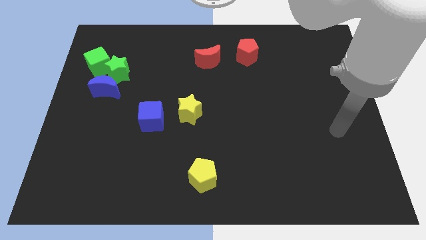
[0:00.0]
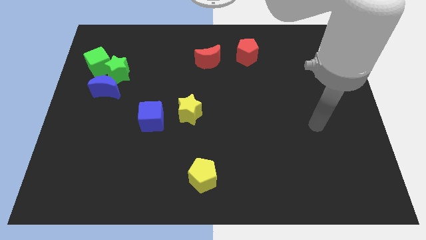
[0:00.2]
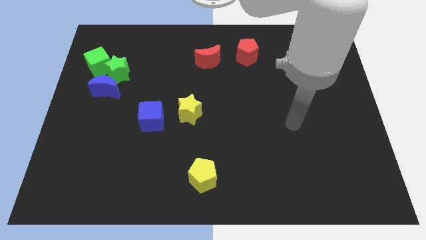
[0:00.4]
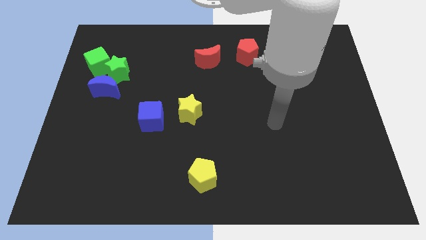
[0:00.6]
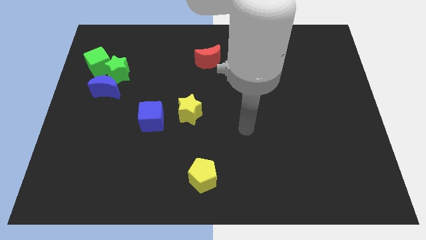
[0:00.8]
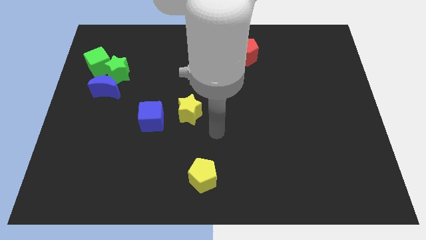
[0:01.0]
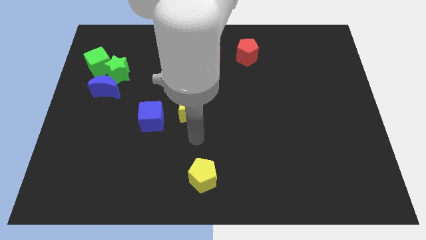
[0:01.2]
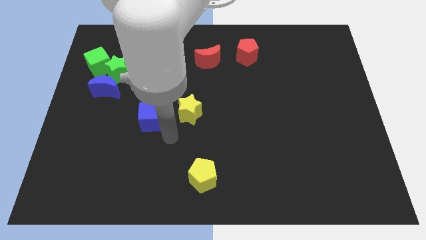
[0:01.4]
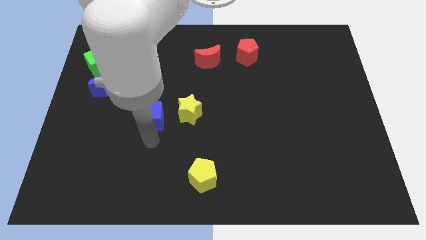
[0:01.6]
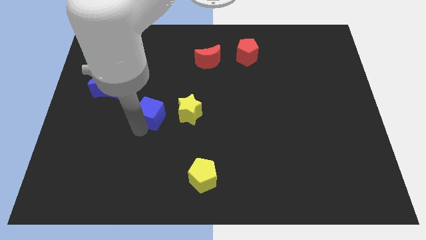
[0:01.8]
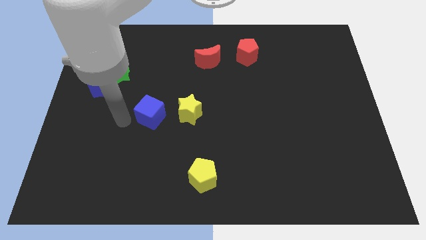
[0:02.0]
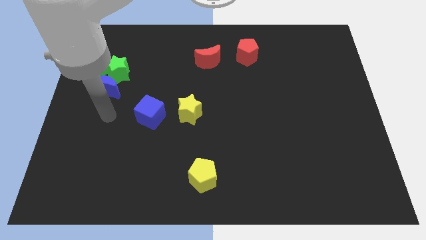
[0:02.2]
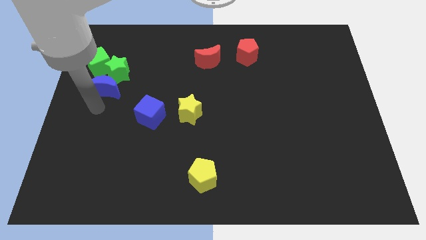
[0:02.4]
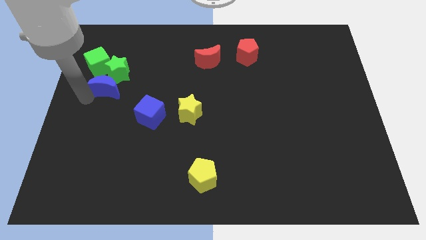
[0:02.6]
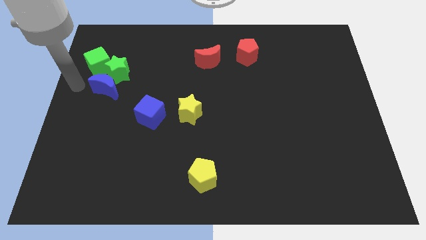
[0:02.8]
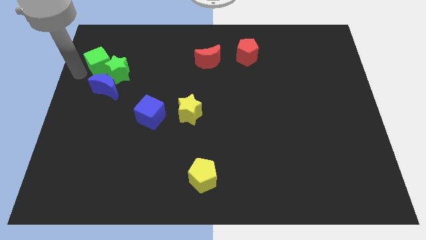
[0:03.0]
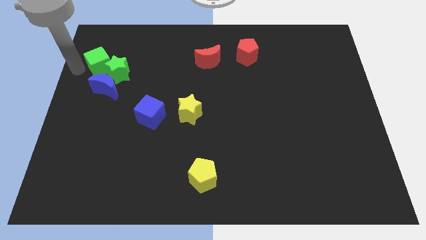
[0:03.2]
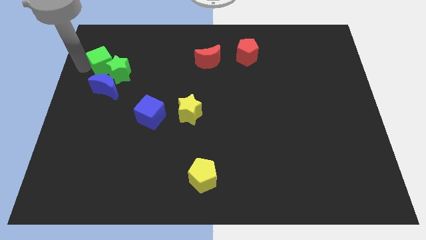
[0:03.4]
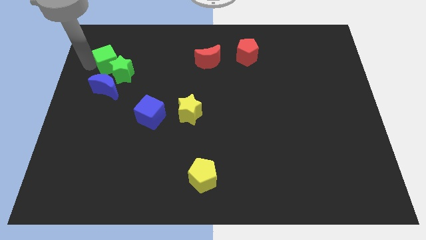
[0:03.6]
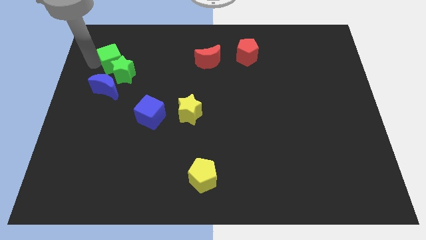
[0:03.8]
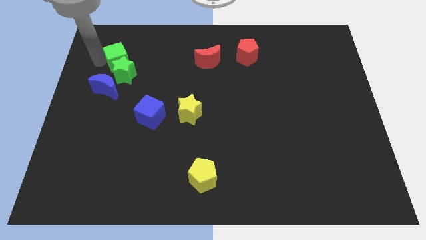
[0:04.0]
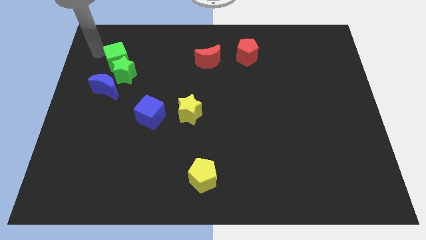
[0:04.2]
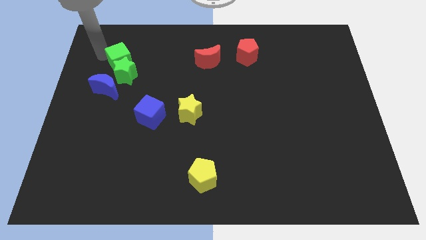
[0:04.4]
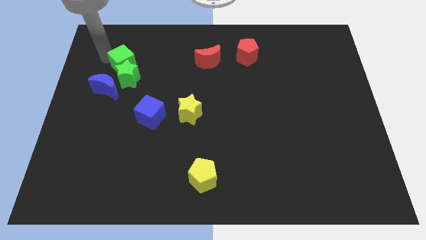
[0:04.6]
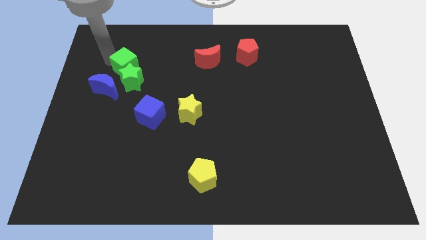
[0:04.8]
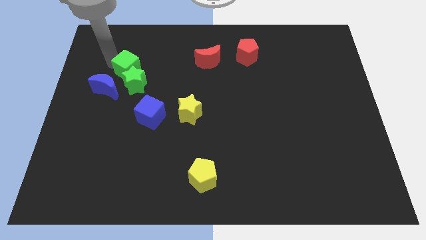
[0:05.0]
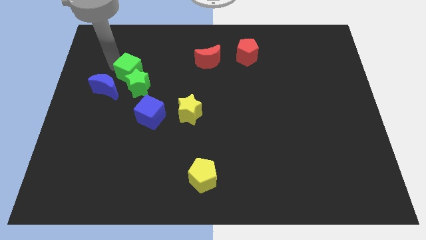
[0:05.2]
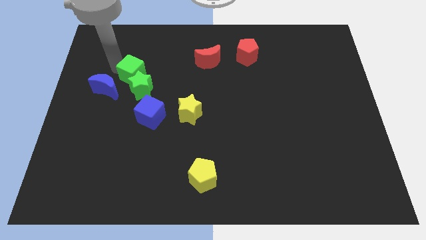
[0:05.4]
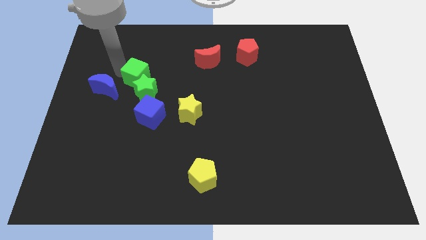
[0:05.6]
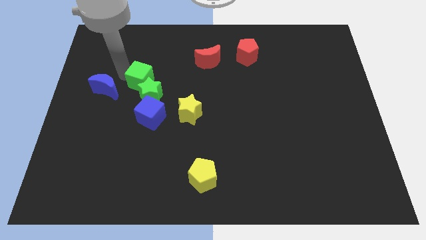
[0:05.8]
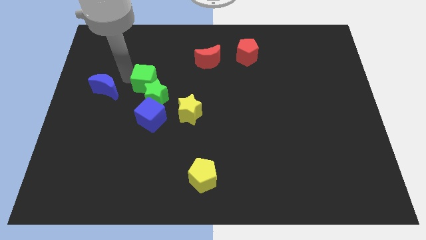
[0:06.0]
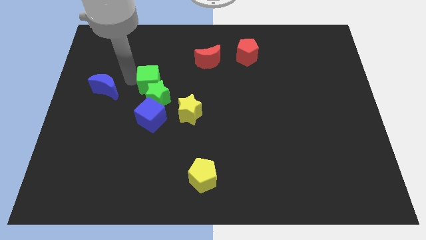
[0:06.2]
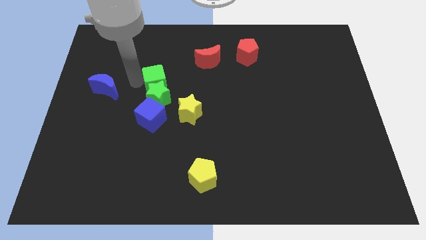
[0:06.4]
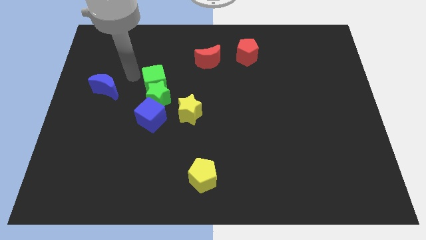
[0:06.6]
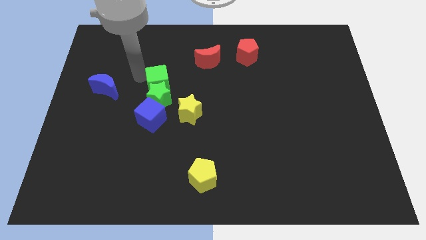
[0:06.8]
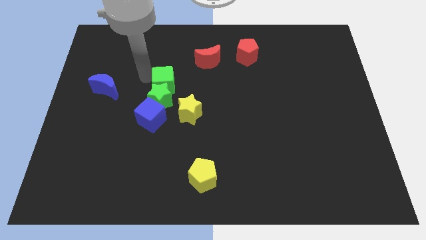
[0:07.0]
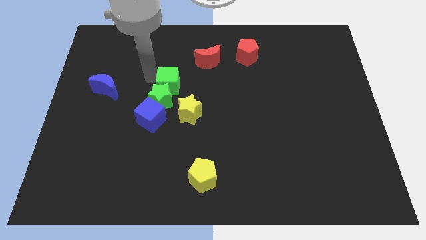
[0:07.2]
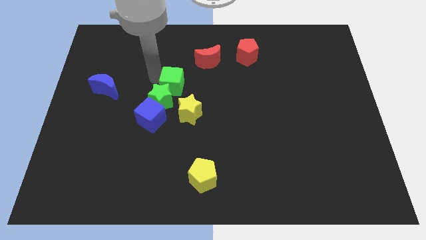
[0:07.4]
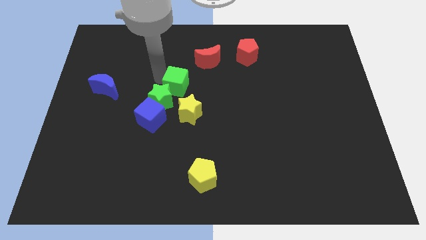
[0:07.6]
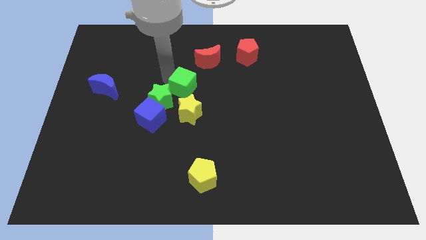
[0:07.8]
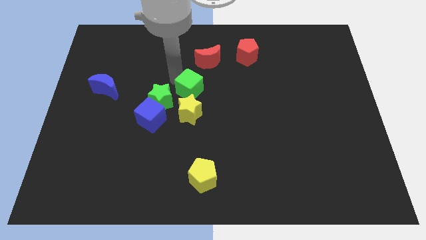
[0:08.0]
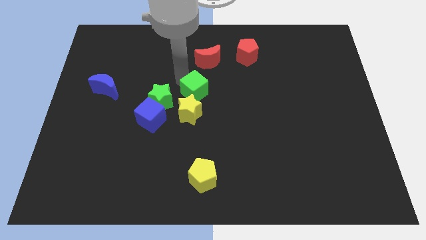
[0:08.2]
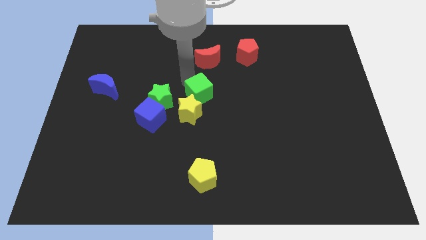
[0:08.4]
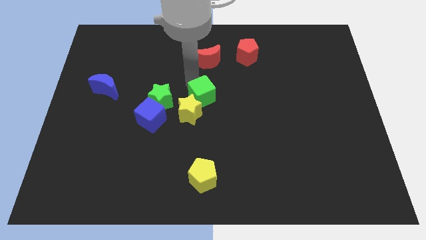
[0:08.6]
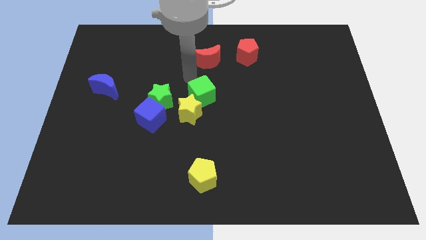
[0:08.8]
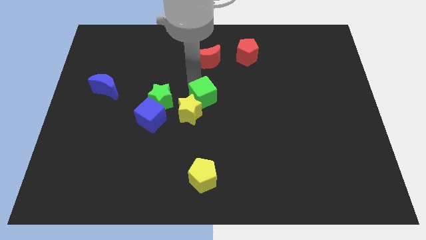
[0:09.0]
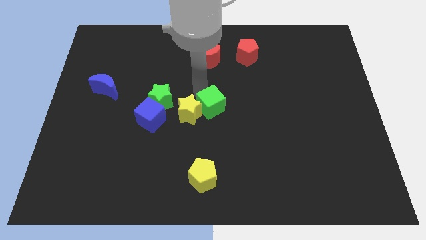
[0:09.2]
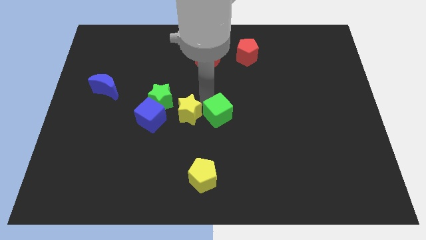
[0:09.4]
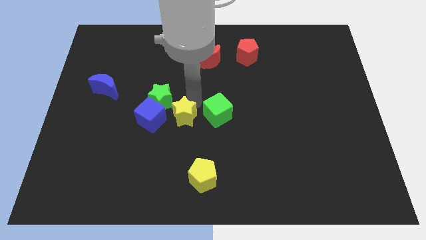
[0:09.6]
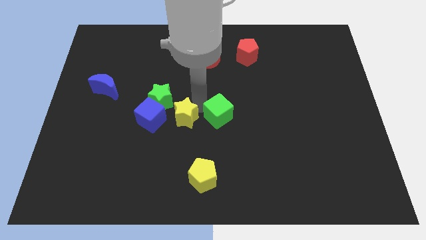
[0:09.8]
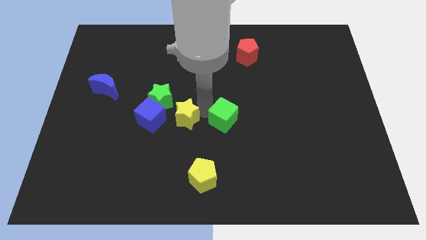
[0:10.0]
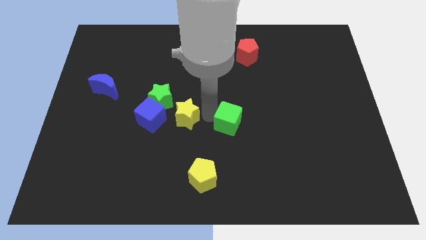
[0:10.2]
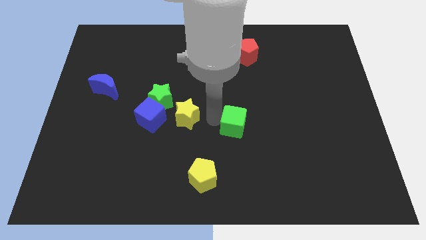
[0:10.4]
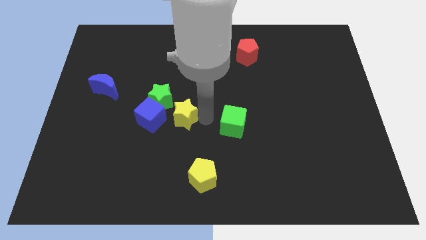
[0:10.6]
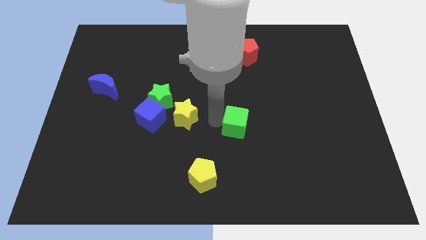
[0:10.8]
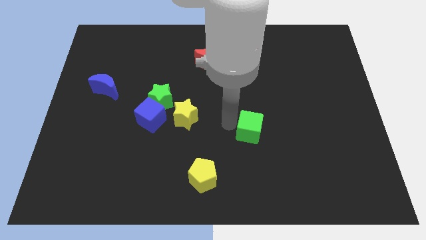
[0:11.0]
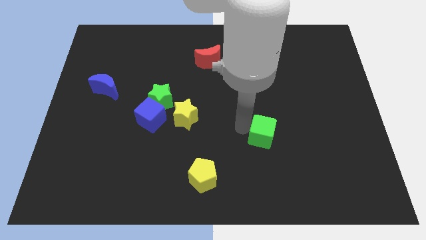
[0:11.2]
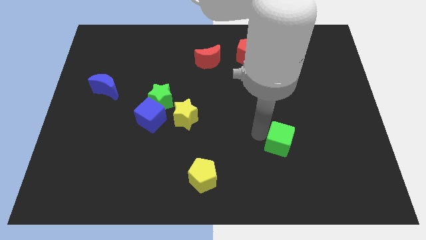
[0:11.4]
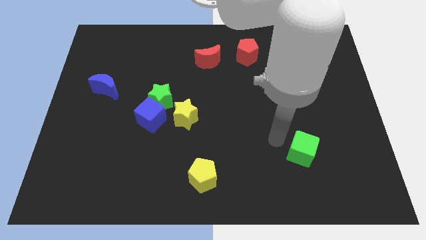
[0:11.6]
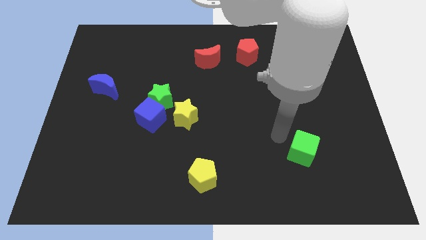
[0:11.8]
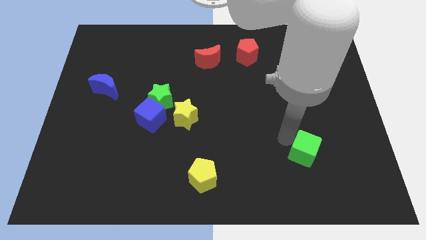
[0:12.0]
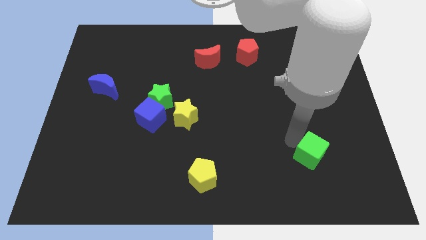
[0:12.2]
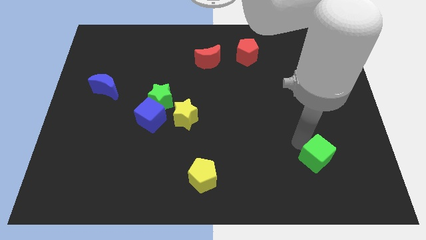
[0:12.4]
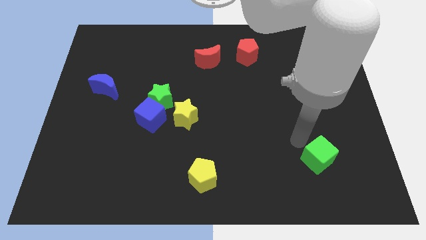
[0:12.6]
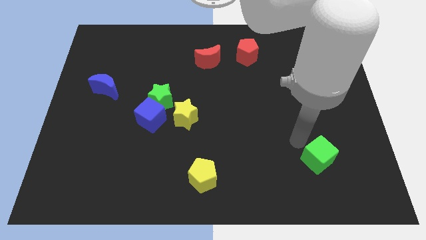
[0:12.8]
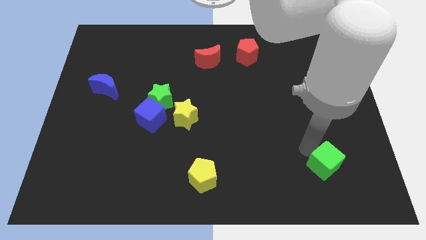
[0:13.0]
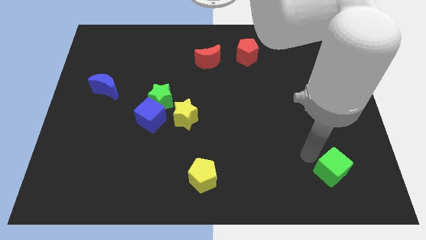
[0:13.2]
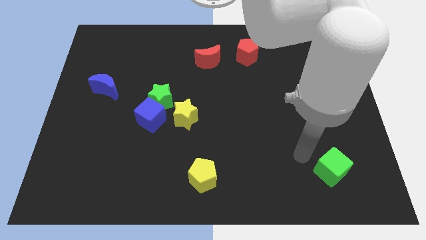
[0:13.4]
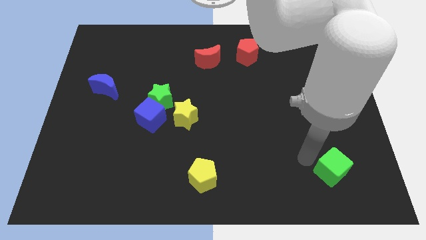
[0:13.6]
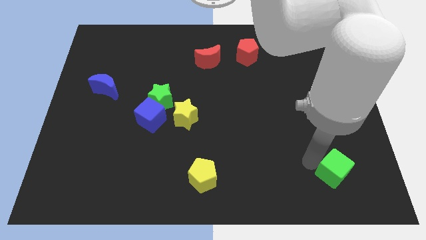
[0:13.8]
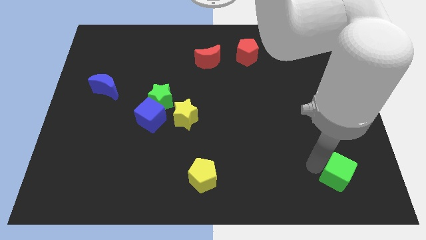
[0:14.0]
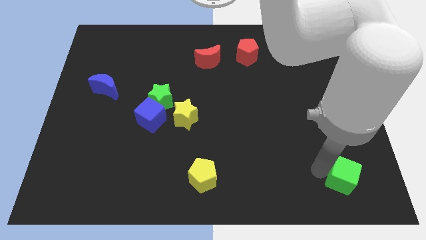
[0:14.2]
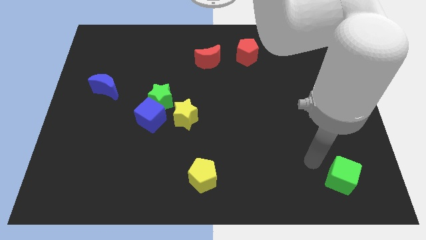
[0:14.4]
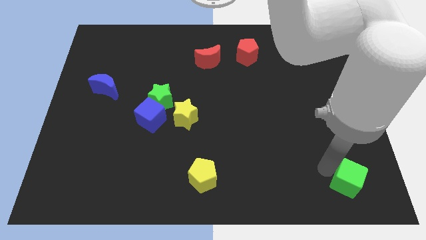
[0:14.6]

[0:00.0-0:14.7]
move the green cube to the bottom right corner

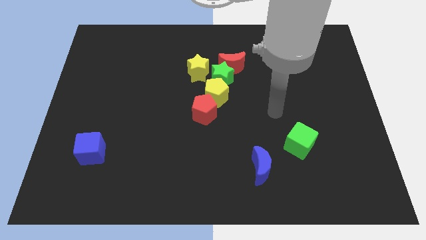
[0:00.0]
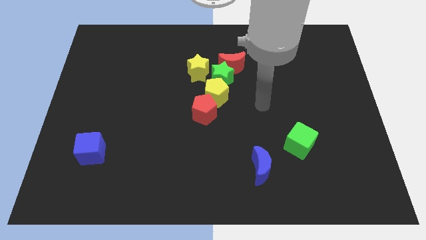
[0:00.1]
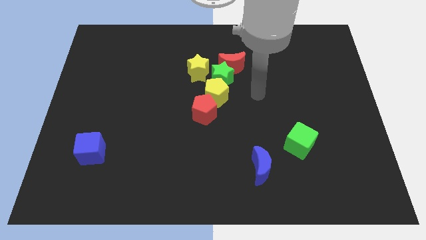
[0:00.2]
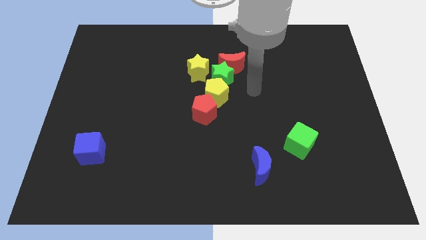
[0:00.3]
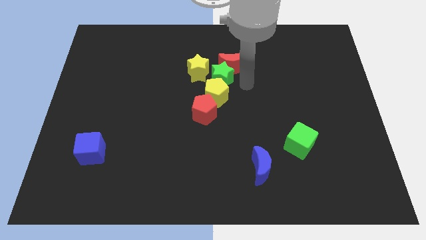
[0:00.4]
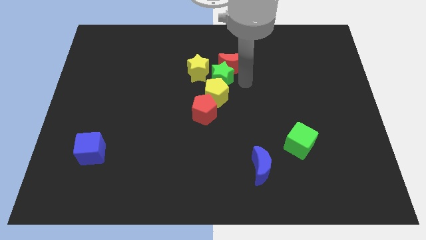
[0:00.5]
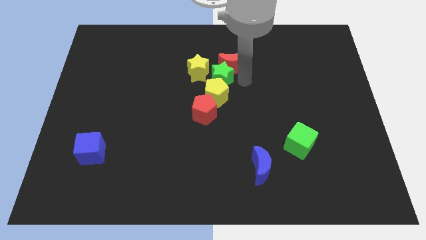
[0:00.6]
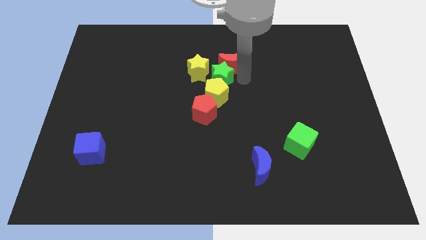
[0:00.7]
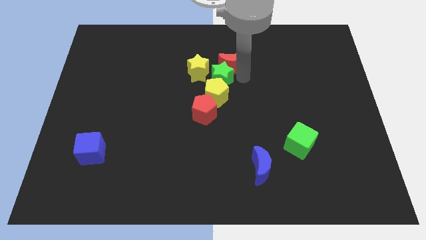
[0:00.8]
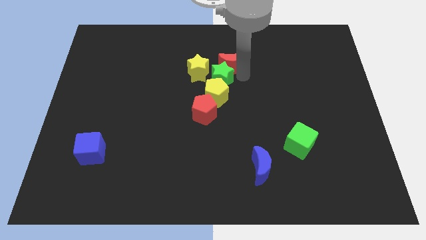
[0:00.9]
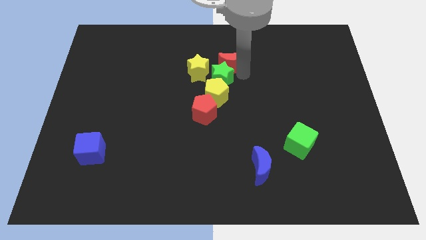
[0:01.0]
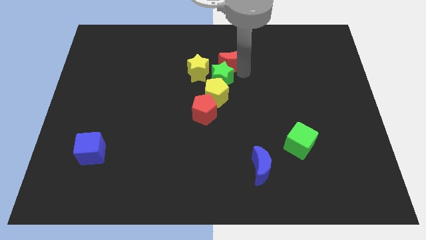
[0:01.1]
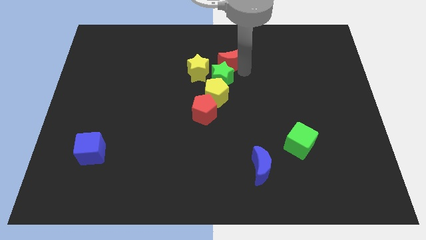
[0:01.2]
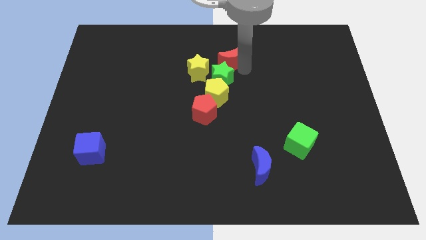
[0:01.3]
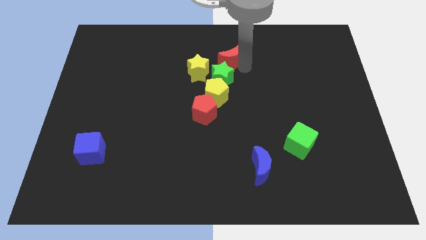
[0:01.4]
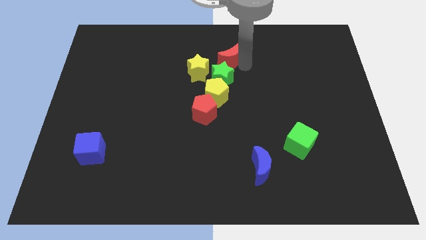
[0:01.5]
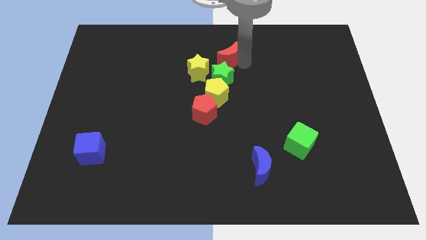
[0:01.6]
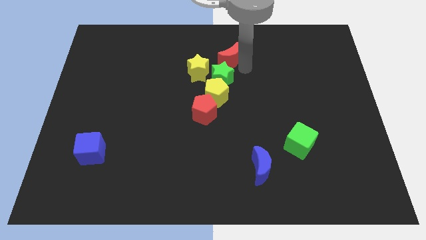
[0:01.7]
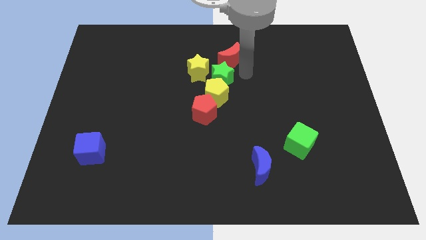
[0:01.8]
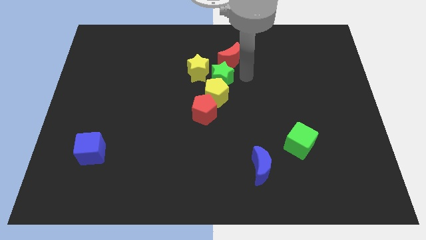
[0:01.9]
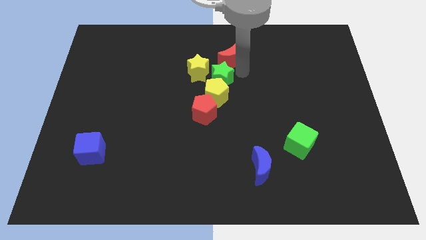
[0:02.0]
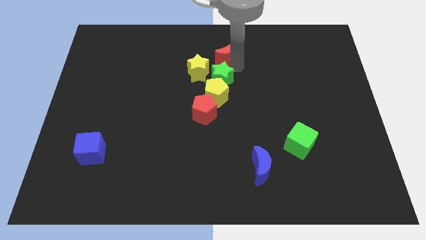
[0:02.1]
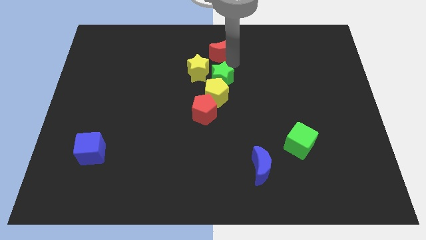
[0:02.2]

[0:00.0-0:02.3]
slide the red moon to the towards your base
